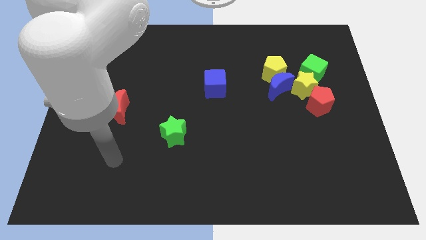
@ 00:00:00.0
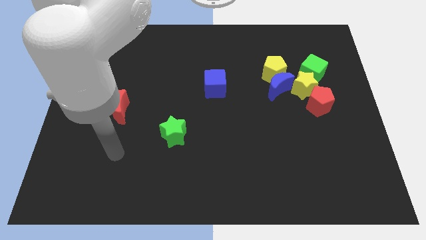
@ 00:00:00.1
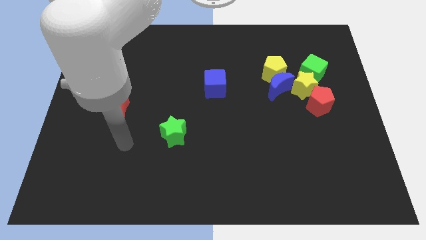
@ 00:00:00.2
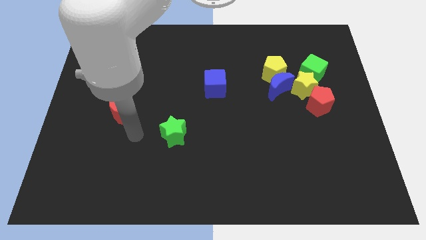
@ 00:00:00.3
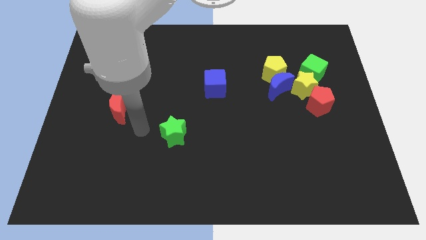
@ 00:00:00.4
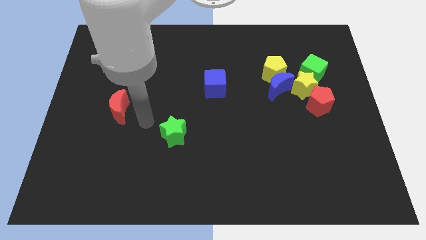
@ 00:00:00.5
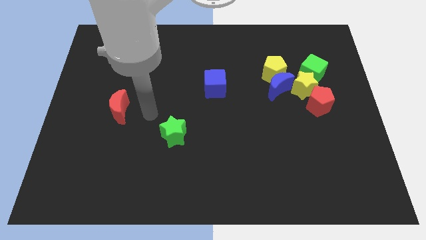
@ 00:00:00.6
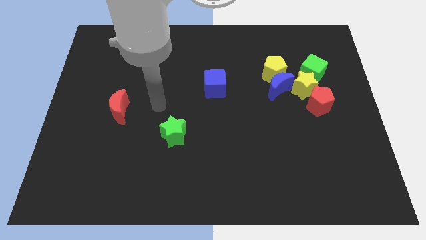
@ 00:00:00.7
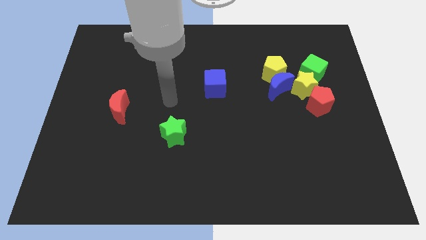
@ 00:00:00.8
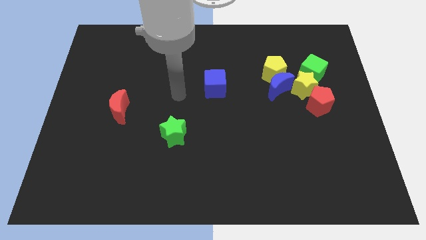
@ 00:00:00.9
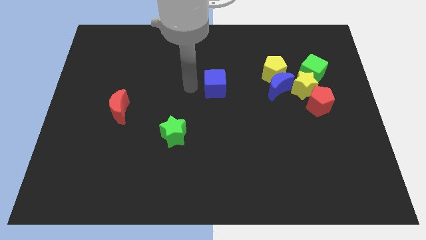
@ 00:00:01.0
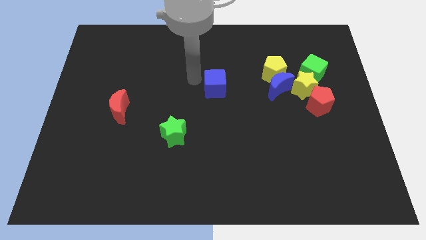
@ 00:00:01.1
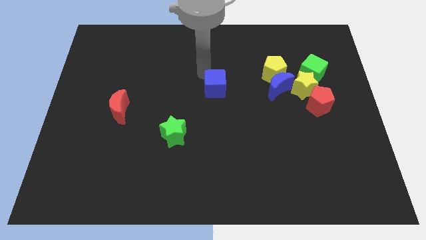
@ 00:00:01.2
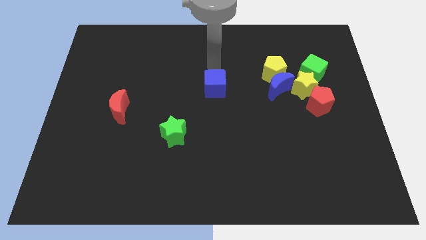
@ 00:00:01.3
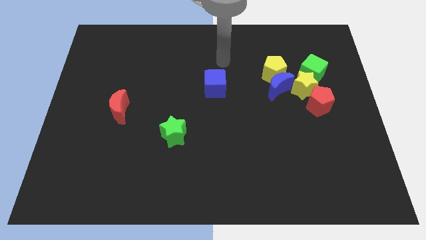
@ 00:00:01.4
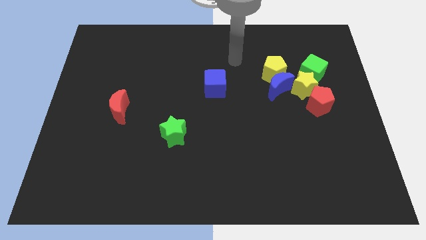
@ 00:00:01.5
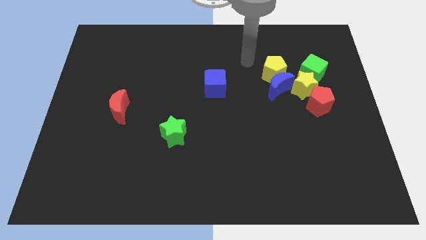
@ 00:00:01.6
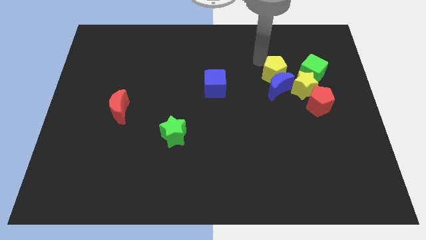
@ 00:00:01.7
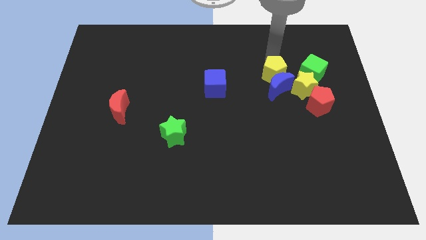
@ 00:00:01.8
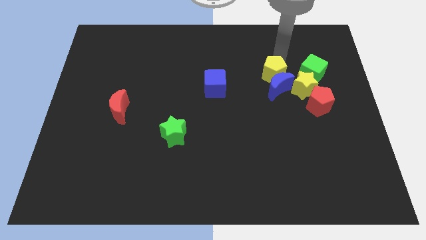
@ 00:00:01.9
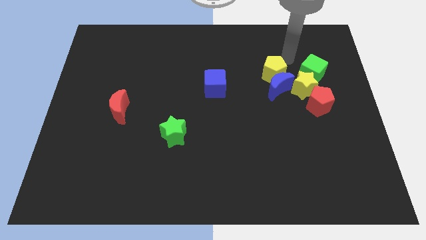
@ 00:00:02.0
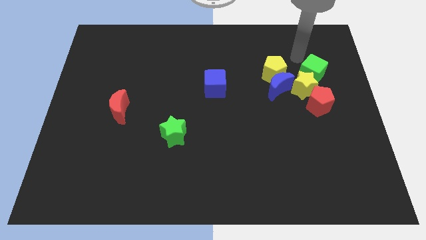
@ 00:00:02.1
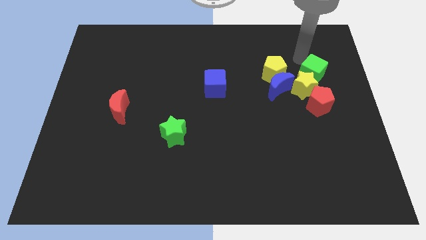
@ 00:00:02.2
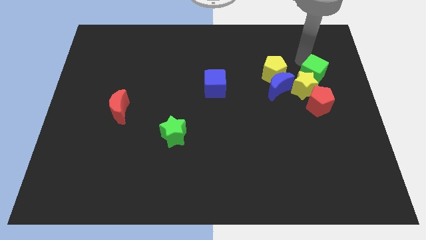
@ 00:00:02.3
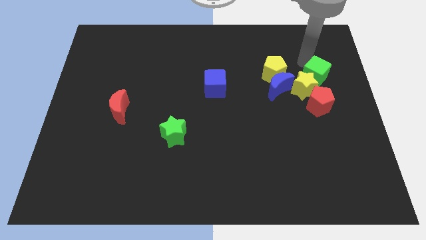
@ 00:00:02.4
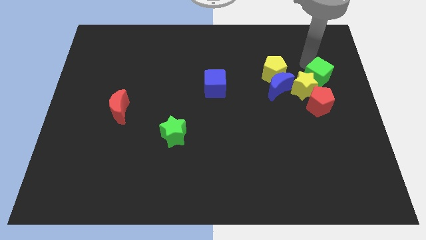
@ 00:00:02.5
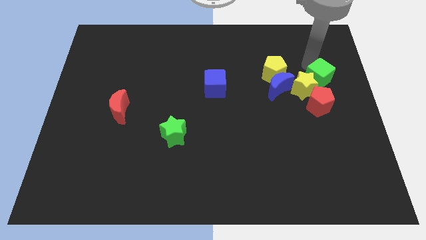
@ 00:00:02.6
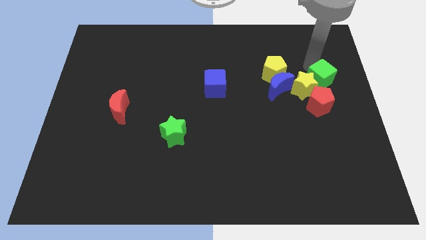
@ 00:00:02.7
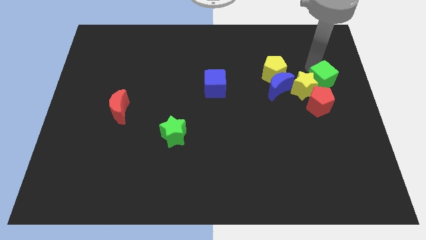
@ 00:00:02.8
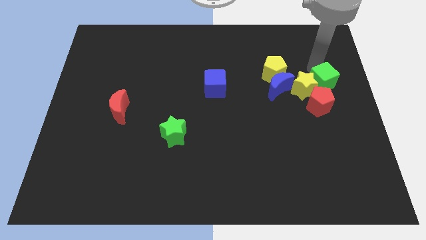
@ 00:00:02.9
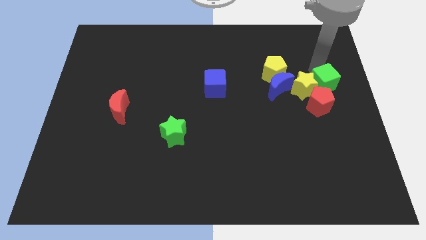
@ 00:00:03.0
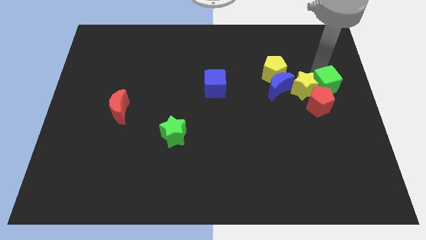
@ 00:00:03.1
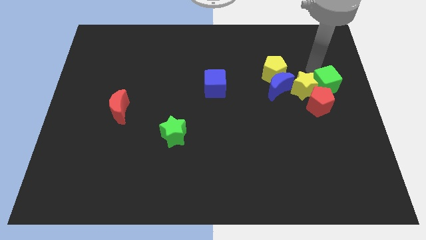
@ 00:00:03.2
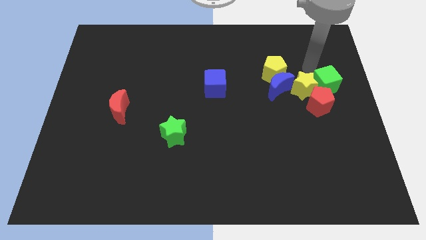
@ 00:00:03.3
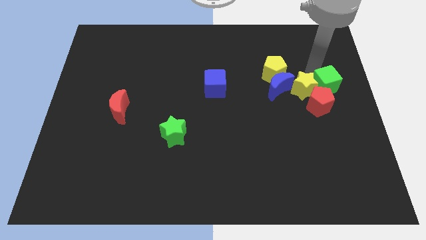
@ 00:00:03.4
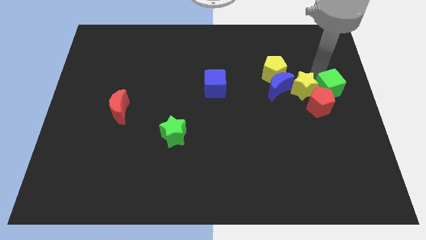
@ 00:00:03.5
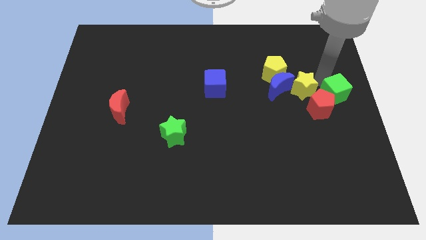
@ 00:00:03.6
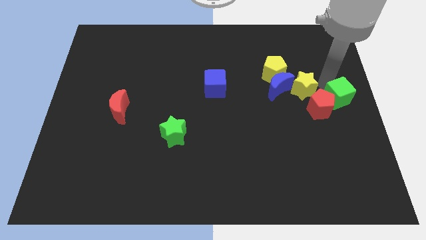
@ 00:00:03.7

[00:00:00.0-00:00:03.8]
slightly push the green cube downwards

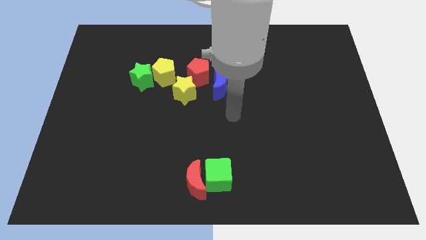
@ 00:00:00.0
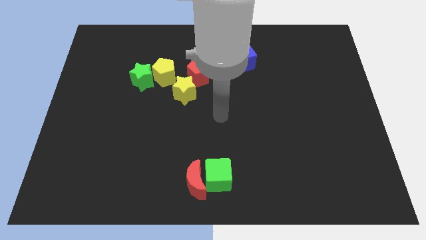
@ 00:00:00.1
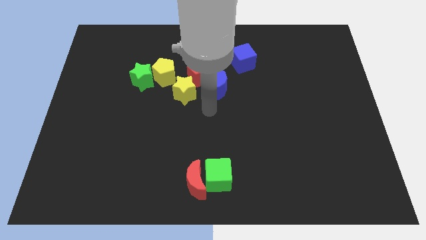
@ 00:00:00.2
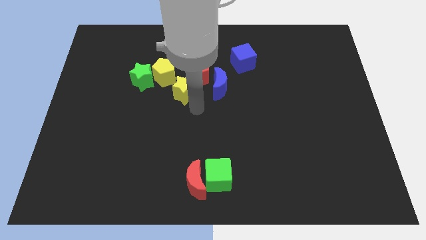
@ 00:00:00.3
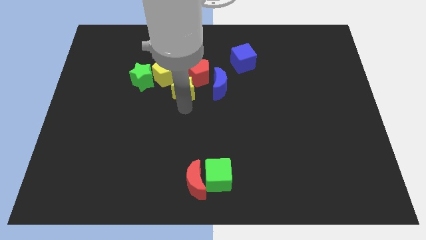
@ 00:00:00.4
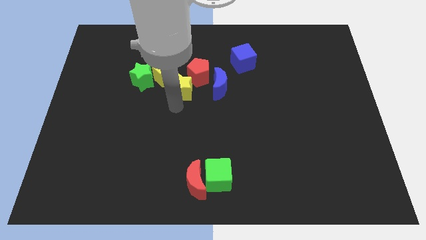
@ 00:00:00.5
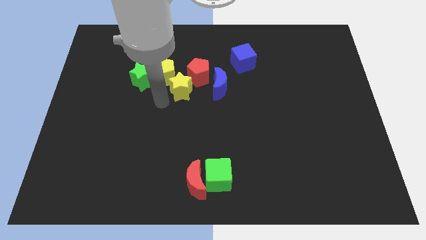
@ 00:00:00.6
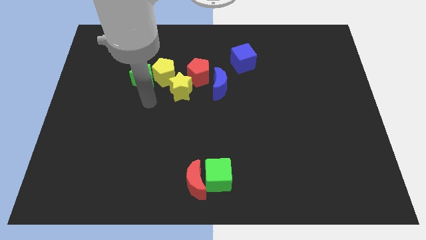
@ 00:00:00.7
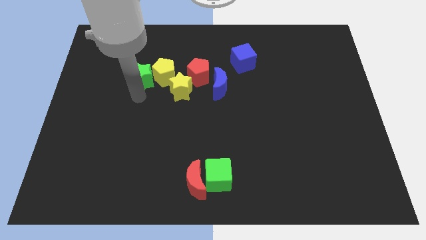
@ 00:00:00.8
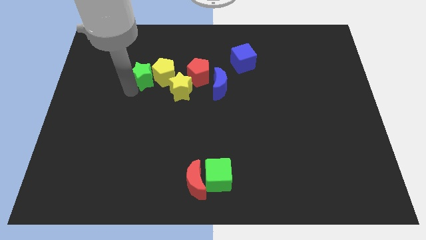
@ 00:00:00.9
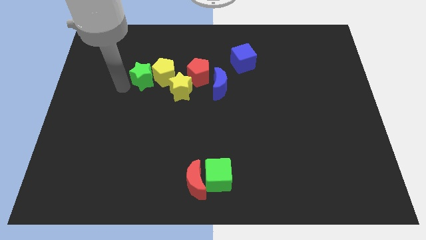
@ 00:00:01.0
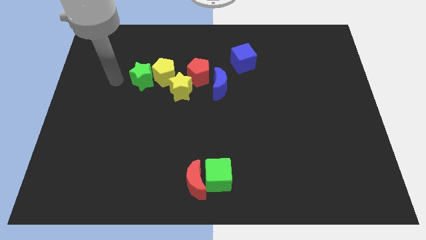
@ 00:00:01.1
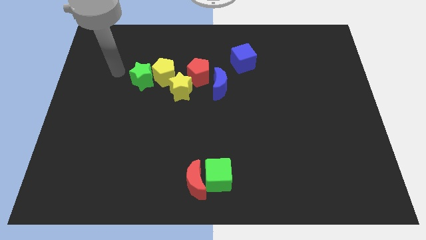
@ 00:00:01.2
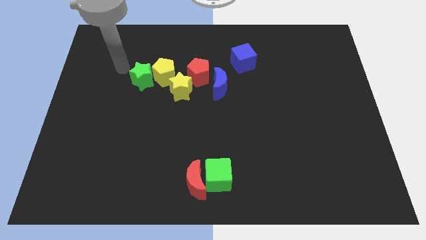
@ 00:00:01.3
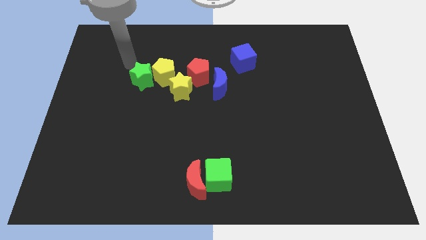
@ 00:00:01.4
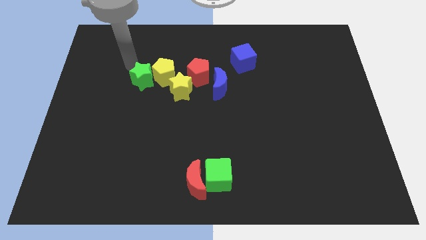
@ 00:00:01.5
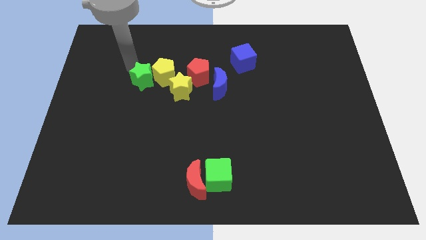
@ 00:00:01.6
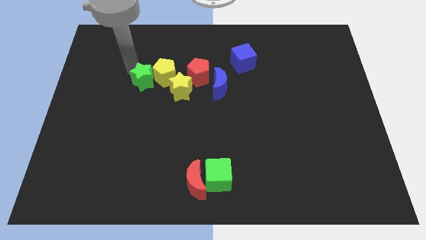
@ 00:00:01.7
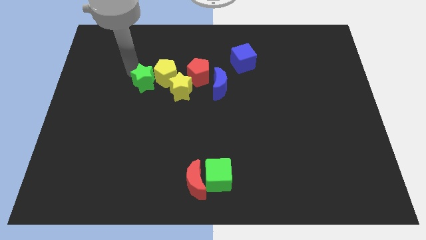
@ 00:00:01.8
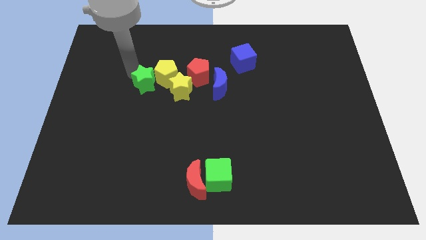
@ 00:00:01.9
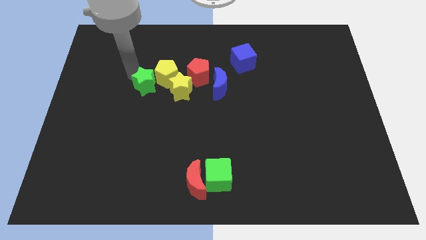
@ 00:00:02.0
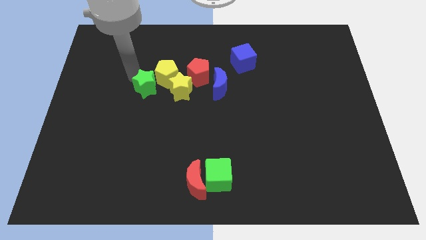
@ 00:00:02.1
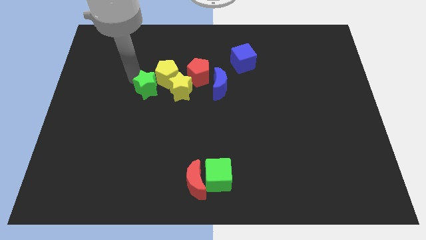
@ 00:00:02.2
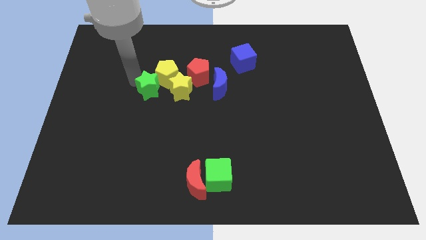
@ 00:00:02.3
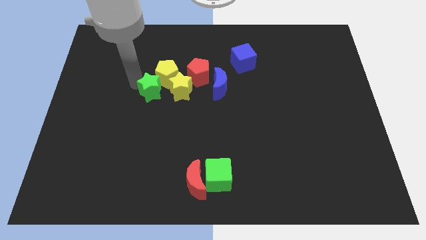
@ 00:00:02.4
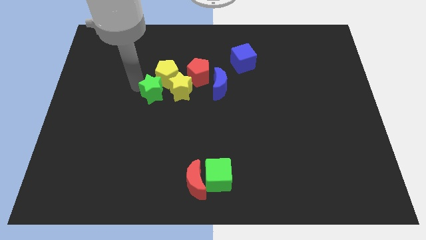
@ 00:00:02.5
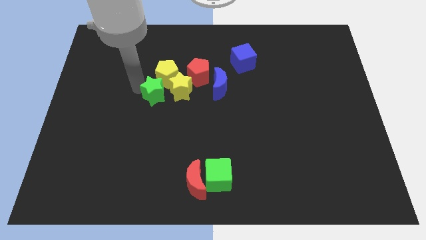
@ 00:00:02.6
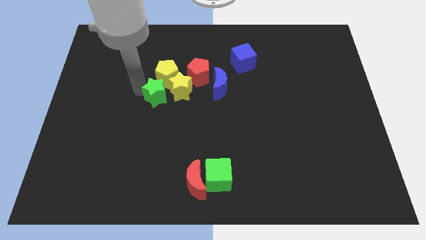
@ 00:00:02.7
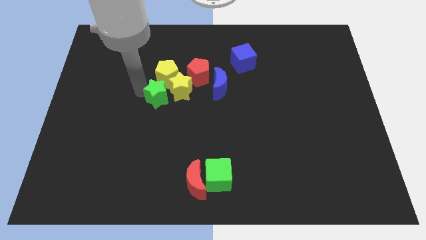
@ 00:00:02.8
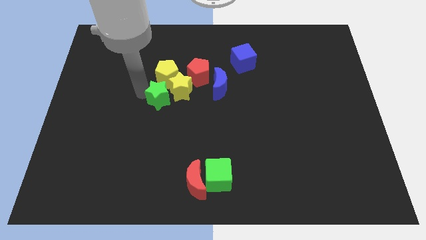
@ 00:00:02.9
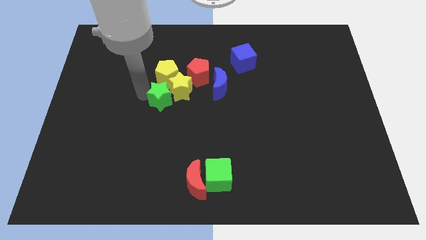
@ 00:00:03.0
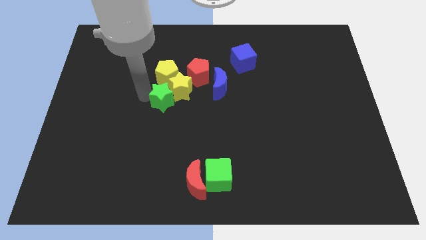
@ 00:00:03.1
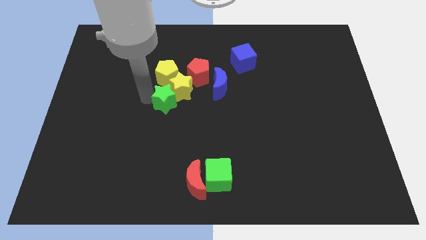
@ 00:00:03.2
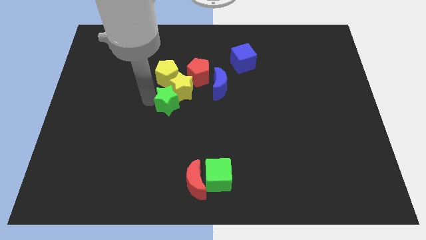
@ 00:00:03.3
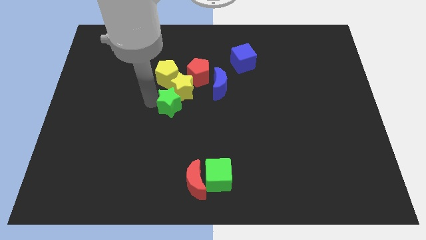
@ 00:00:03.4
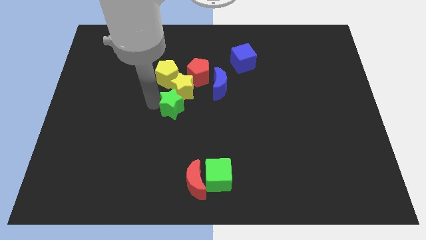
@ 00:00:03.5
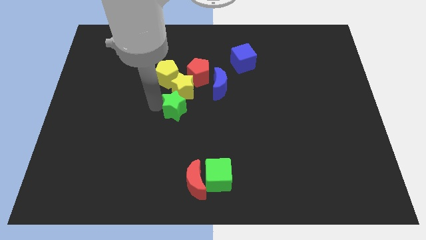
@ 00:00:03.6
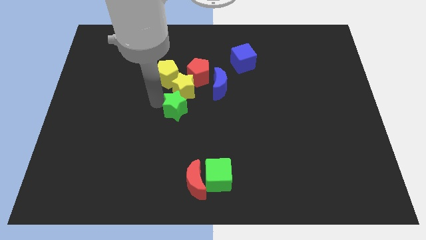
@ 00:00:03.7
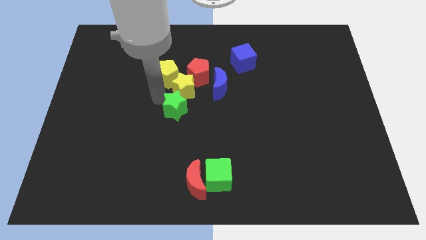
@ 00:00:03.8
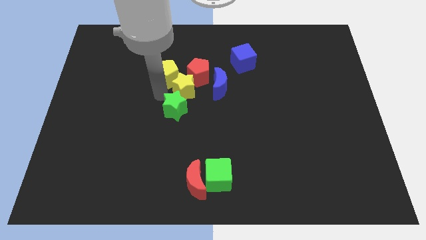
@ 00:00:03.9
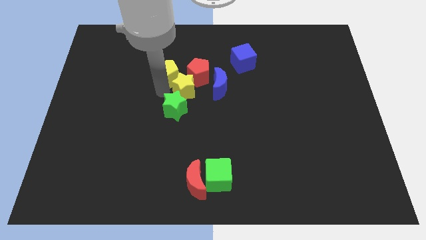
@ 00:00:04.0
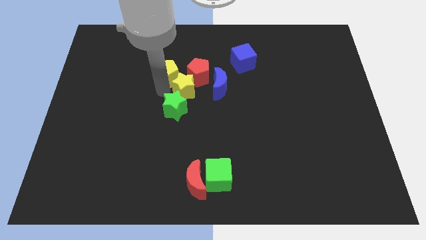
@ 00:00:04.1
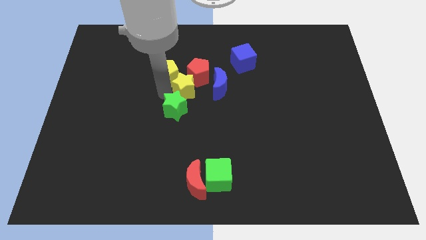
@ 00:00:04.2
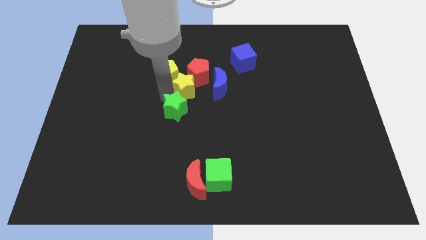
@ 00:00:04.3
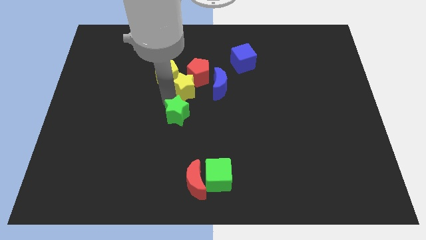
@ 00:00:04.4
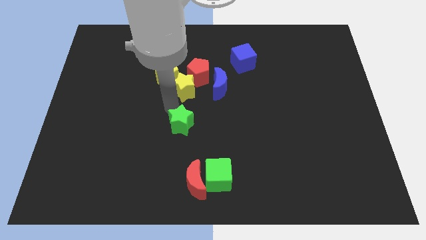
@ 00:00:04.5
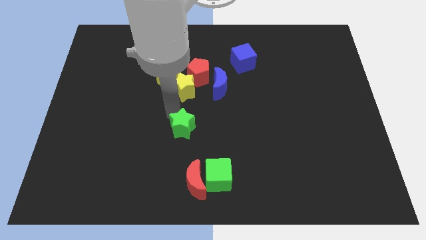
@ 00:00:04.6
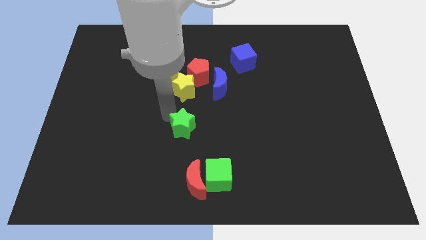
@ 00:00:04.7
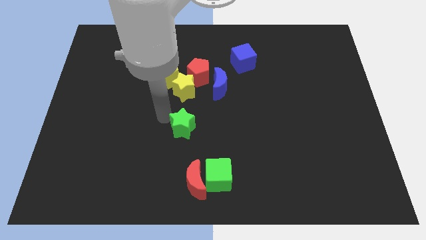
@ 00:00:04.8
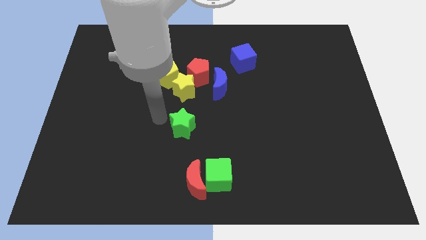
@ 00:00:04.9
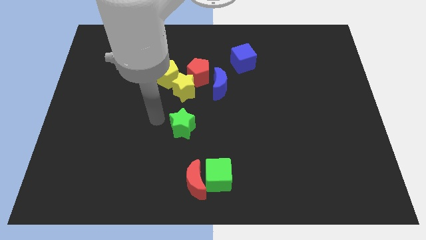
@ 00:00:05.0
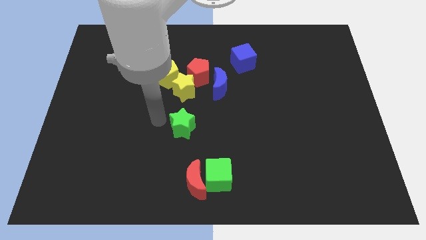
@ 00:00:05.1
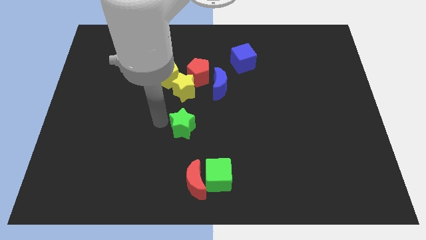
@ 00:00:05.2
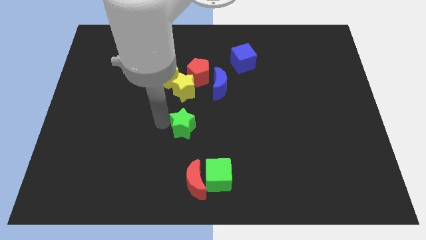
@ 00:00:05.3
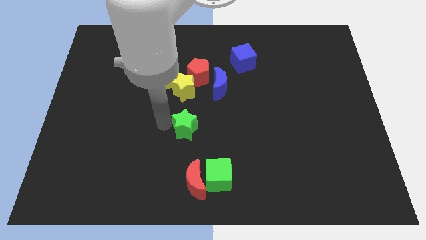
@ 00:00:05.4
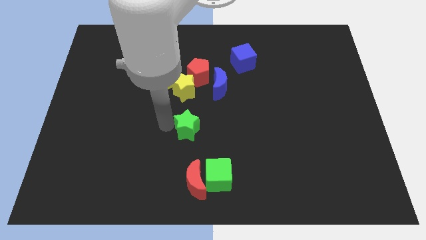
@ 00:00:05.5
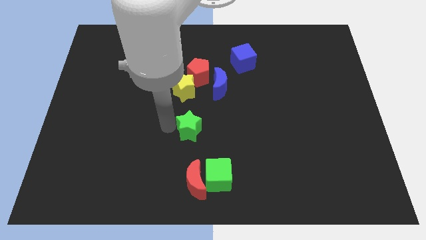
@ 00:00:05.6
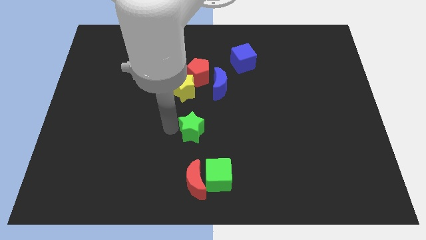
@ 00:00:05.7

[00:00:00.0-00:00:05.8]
slide the green star downwards and right
